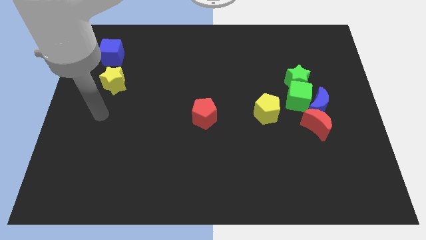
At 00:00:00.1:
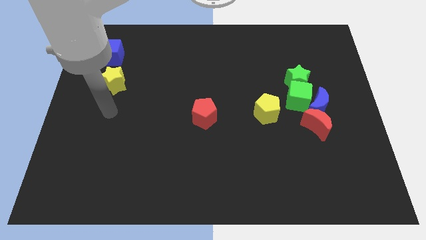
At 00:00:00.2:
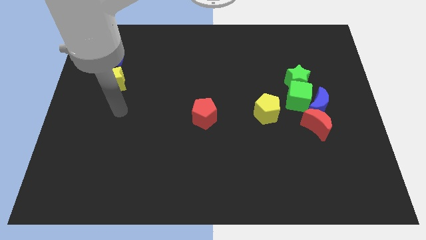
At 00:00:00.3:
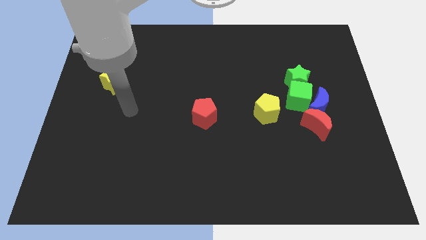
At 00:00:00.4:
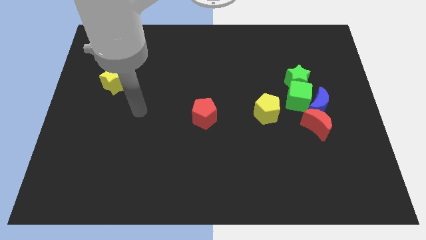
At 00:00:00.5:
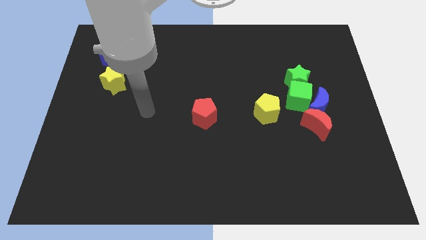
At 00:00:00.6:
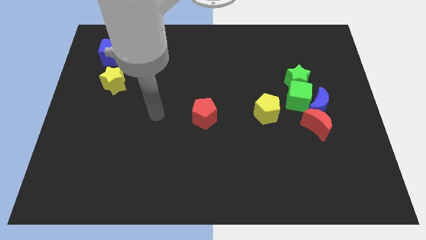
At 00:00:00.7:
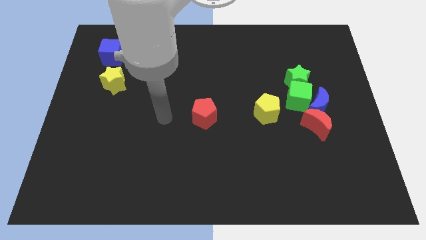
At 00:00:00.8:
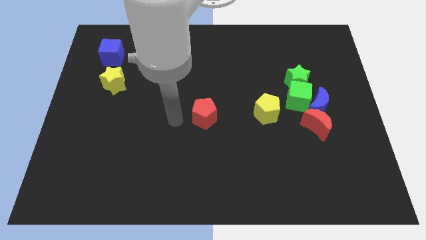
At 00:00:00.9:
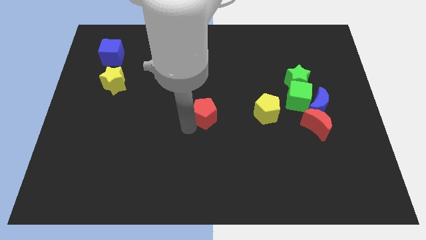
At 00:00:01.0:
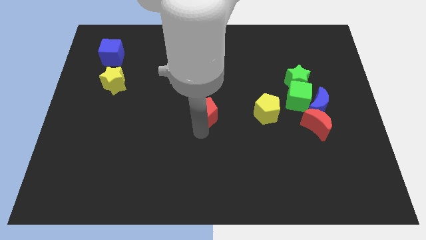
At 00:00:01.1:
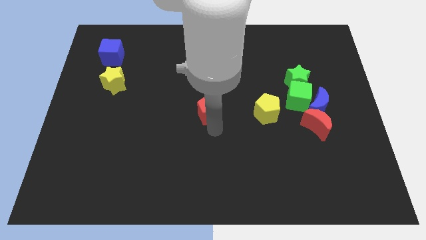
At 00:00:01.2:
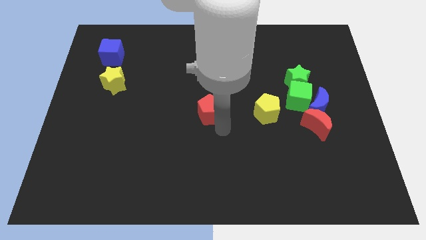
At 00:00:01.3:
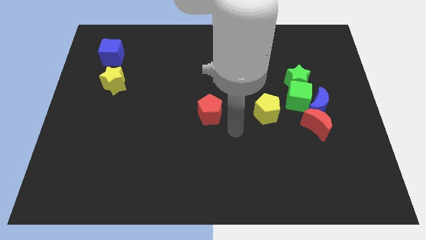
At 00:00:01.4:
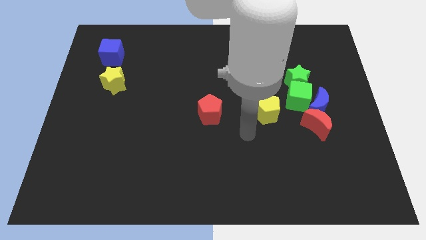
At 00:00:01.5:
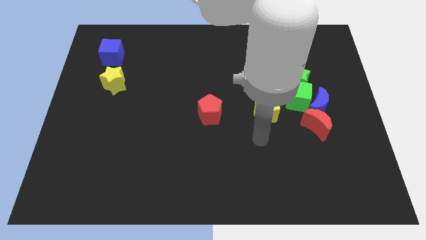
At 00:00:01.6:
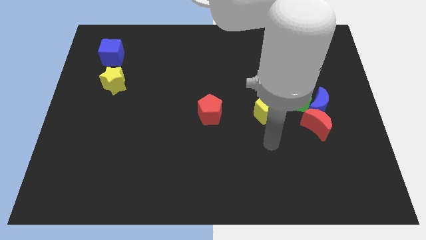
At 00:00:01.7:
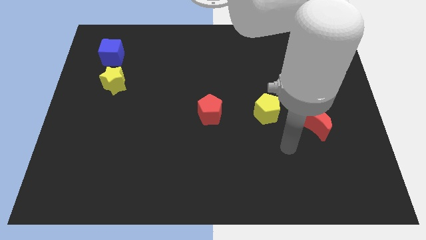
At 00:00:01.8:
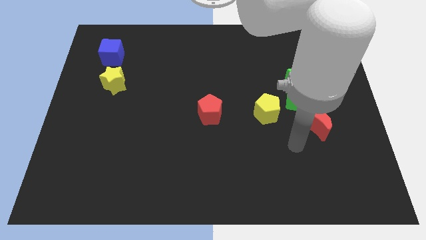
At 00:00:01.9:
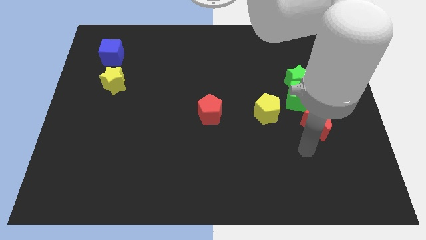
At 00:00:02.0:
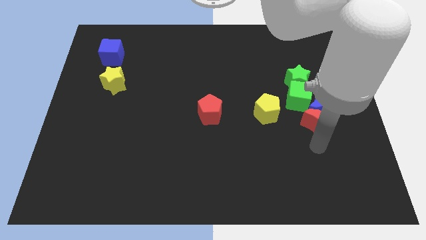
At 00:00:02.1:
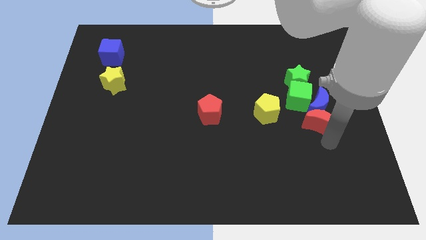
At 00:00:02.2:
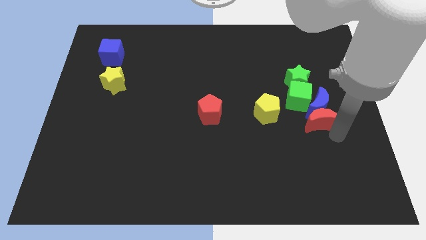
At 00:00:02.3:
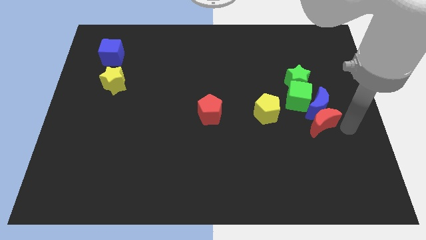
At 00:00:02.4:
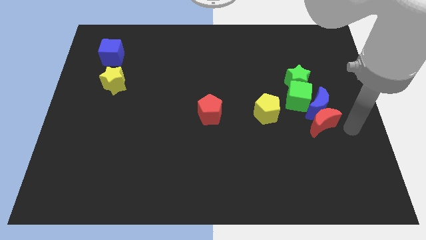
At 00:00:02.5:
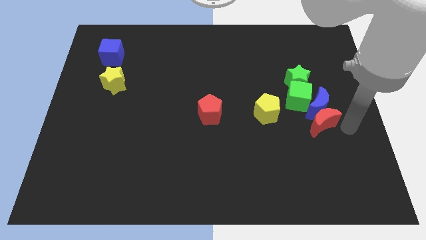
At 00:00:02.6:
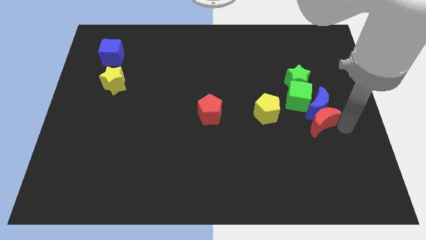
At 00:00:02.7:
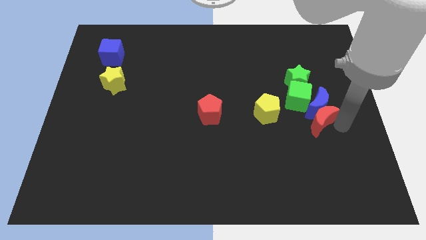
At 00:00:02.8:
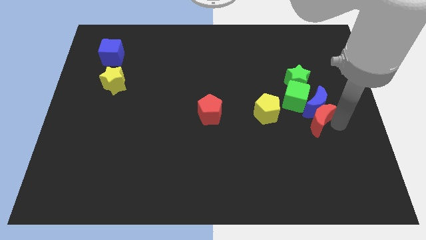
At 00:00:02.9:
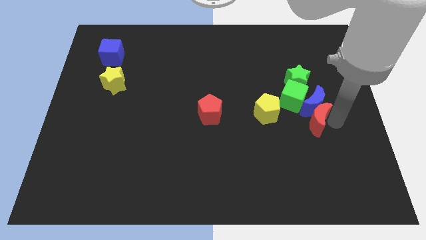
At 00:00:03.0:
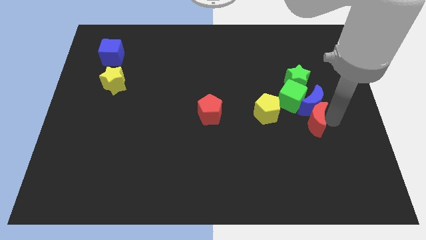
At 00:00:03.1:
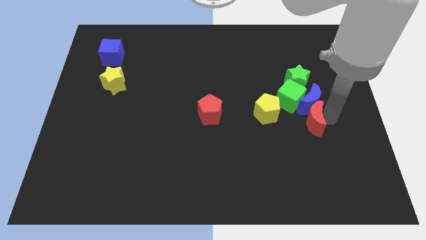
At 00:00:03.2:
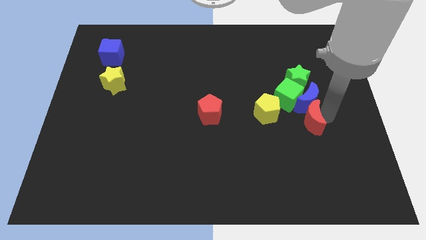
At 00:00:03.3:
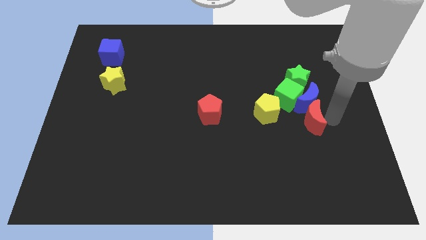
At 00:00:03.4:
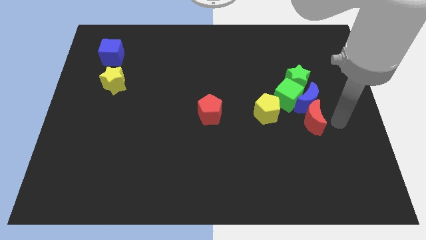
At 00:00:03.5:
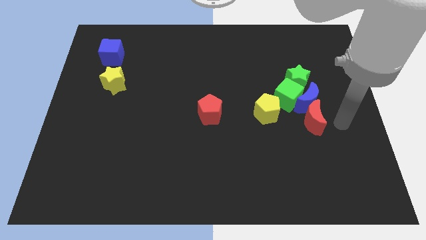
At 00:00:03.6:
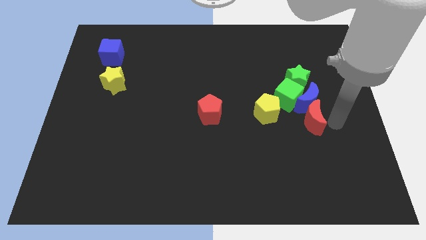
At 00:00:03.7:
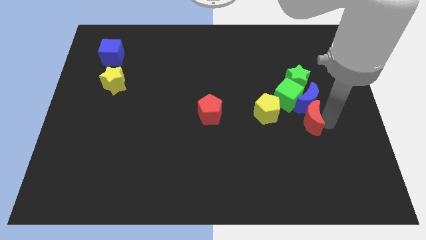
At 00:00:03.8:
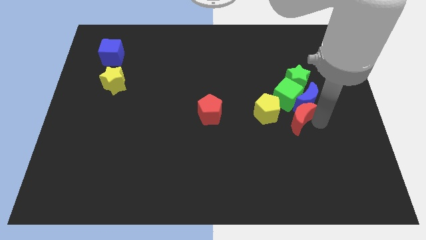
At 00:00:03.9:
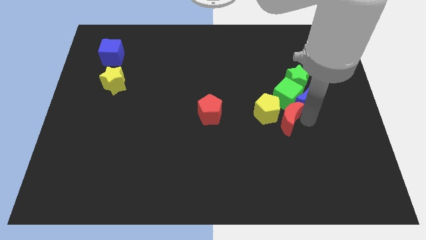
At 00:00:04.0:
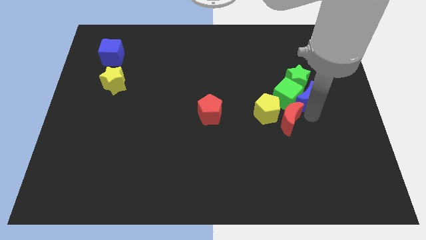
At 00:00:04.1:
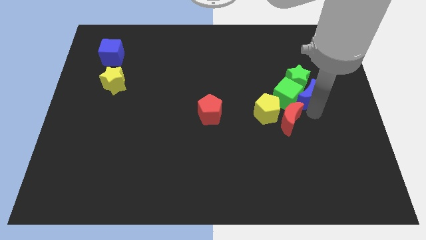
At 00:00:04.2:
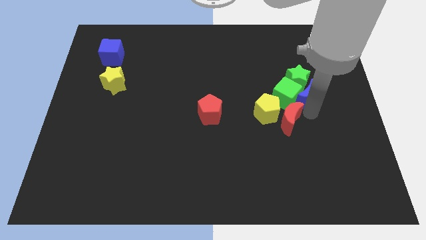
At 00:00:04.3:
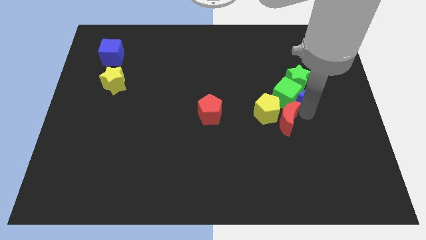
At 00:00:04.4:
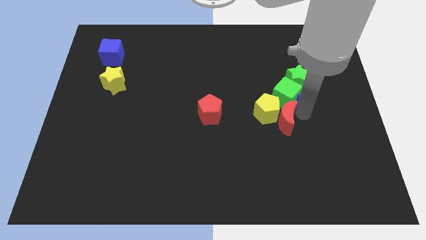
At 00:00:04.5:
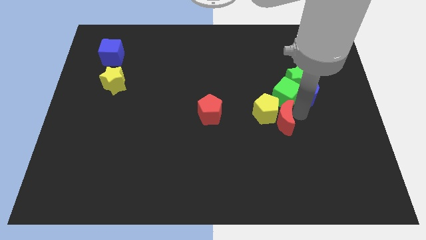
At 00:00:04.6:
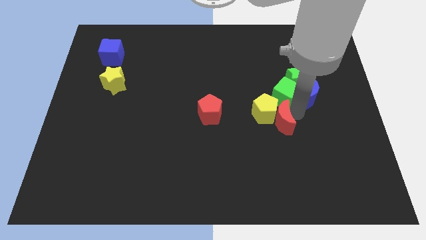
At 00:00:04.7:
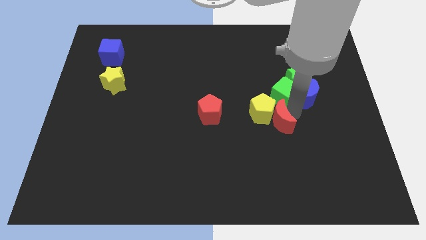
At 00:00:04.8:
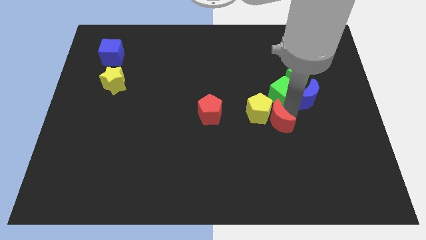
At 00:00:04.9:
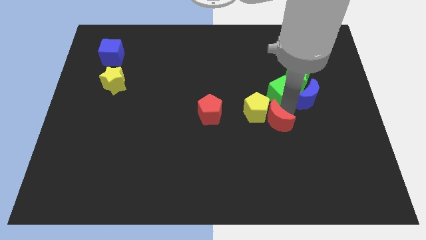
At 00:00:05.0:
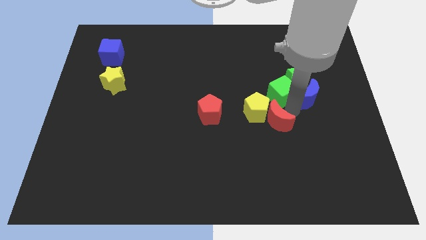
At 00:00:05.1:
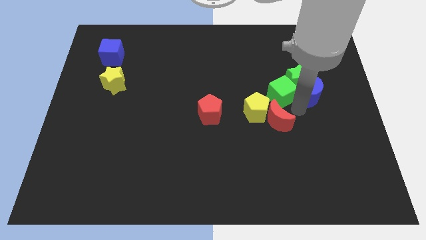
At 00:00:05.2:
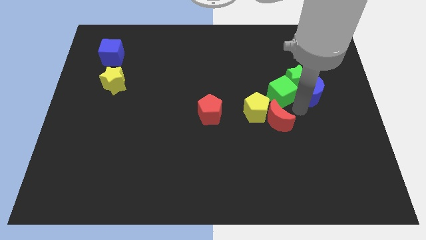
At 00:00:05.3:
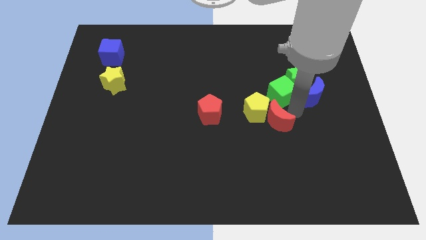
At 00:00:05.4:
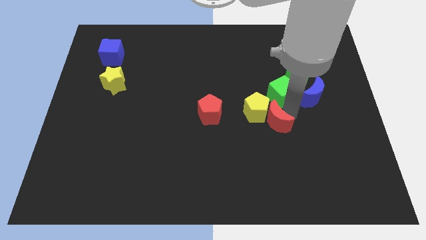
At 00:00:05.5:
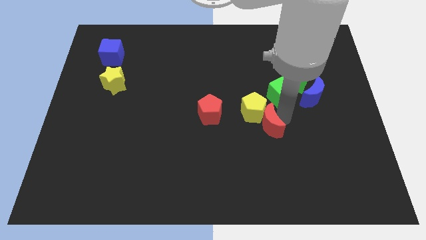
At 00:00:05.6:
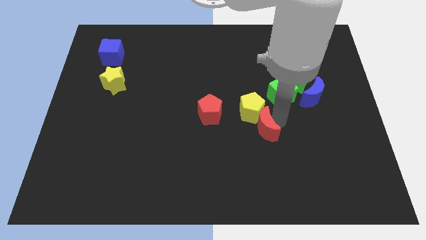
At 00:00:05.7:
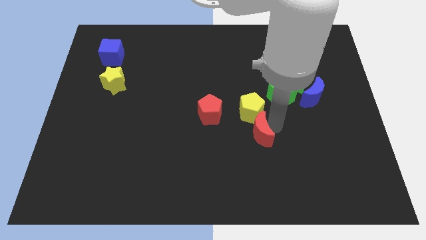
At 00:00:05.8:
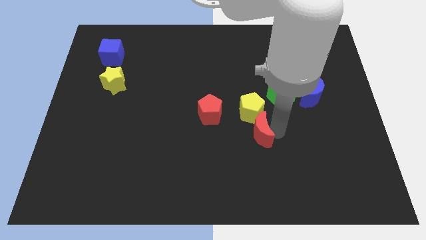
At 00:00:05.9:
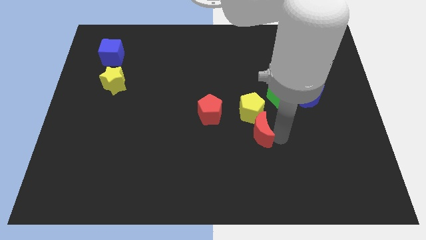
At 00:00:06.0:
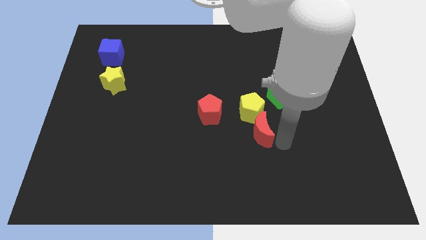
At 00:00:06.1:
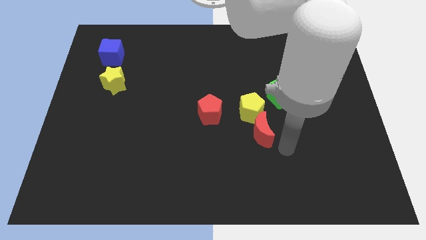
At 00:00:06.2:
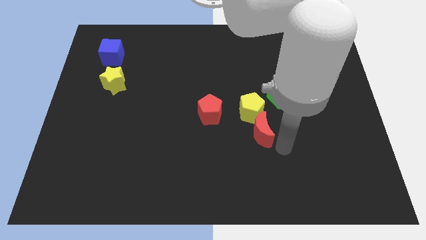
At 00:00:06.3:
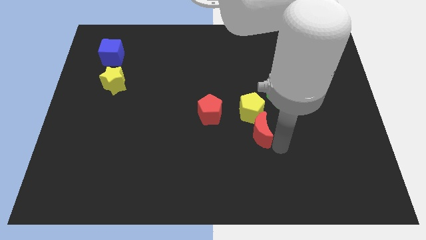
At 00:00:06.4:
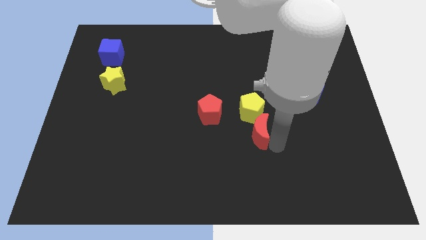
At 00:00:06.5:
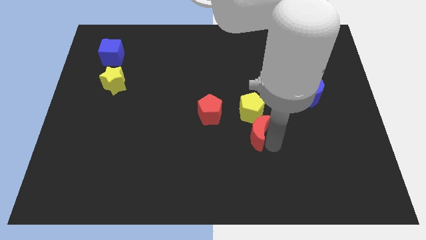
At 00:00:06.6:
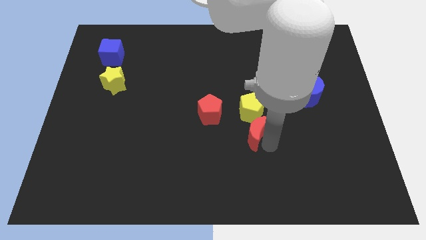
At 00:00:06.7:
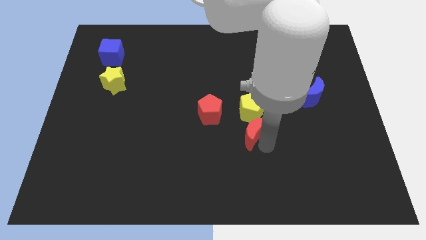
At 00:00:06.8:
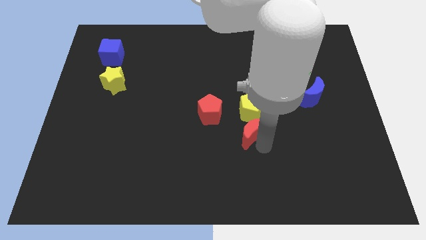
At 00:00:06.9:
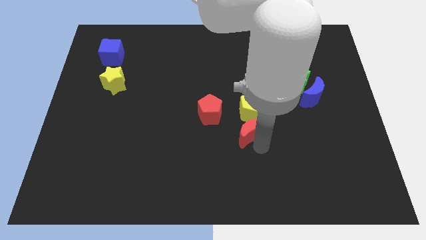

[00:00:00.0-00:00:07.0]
put the red moon to the center
